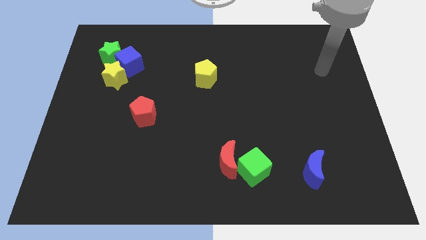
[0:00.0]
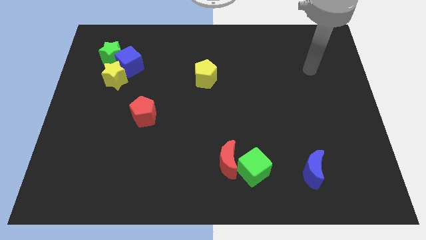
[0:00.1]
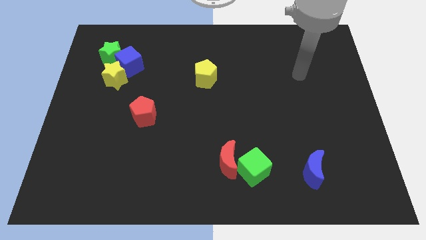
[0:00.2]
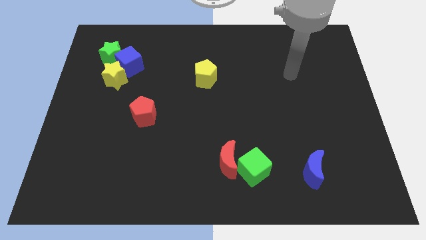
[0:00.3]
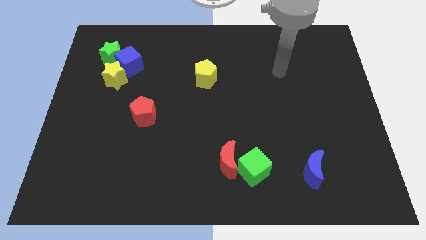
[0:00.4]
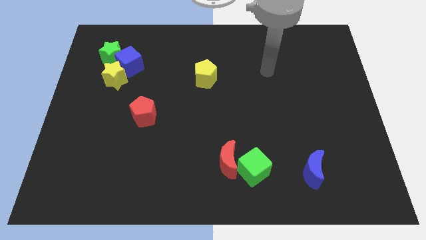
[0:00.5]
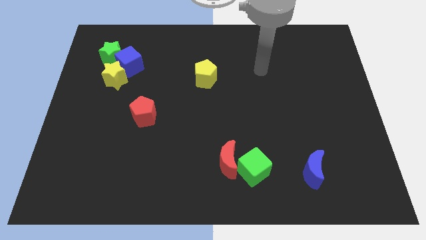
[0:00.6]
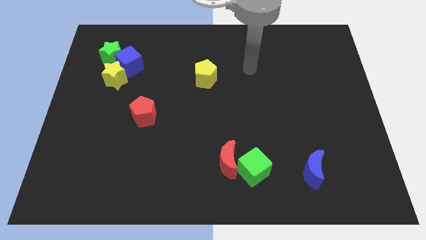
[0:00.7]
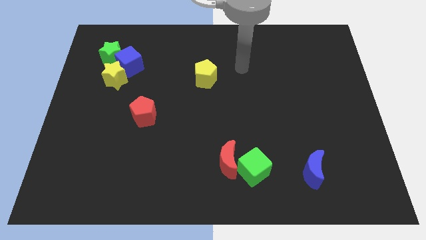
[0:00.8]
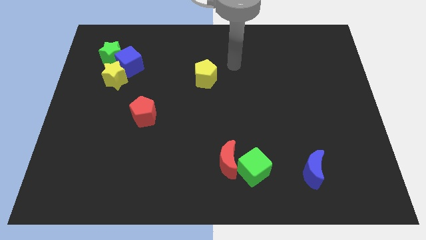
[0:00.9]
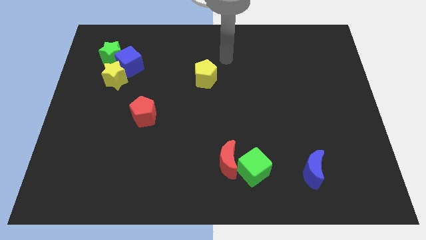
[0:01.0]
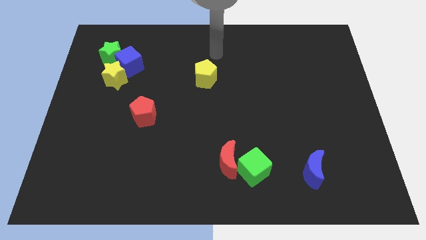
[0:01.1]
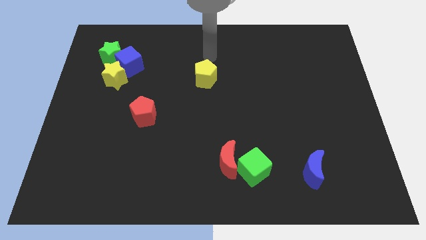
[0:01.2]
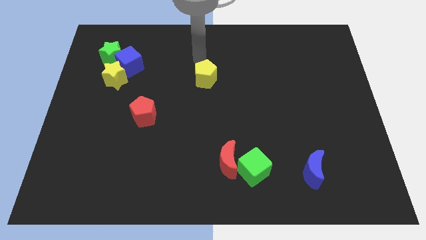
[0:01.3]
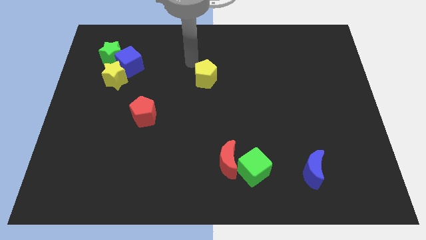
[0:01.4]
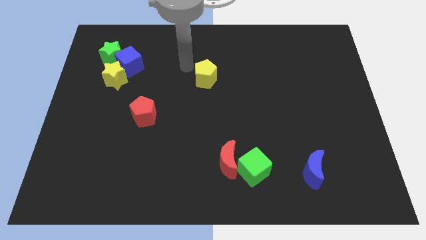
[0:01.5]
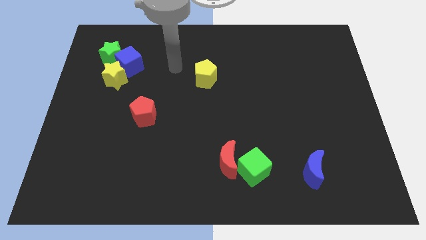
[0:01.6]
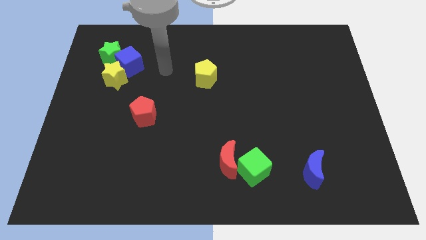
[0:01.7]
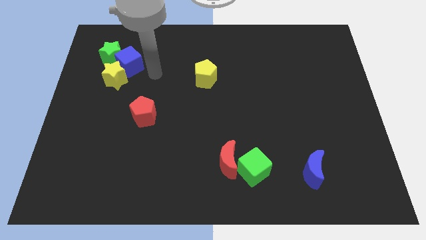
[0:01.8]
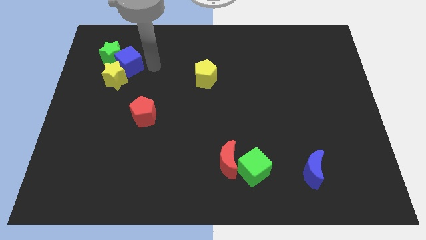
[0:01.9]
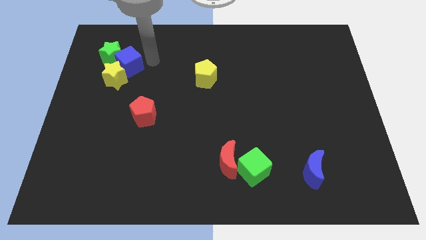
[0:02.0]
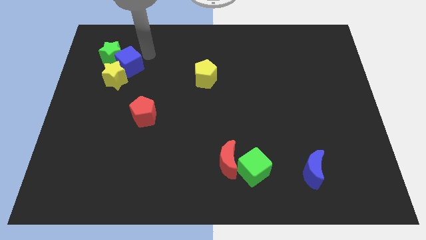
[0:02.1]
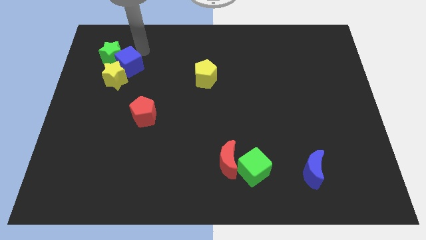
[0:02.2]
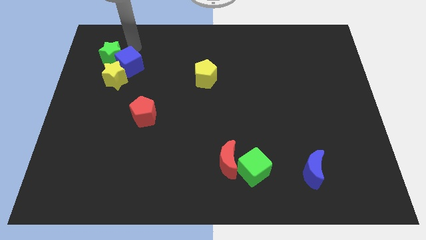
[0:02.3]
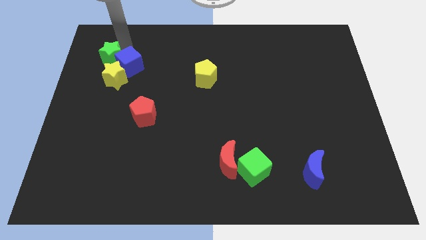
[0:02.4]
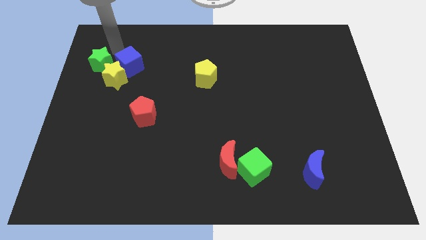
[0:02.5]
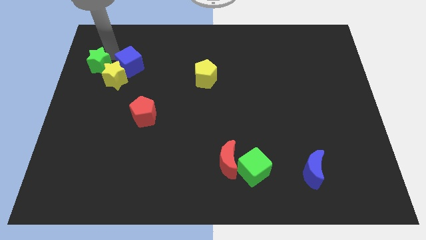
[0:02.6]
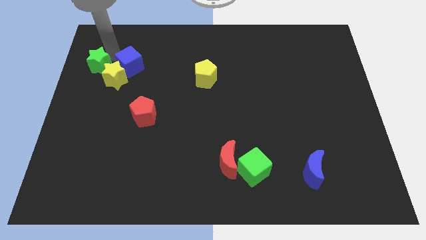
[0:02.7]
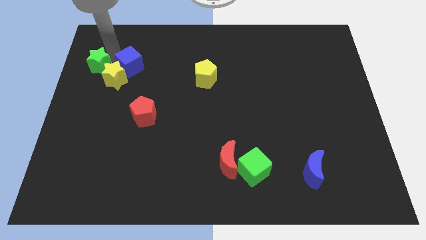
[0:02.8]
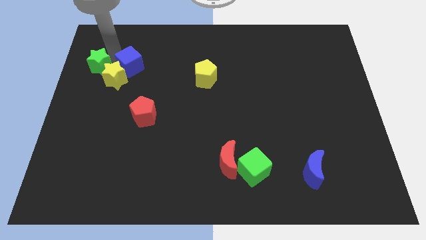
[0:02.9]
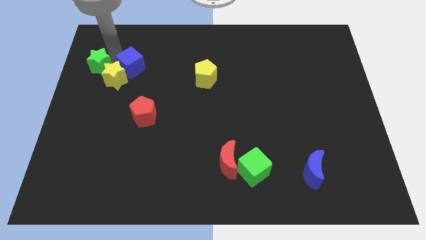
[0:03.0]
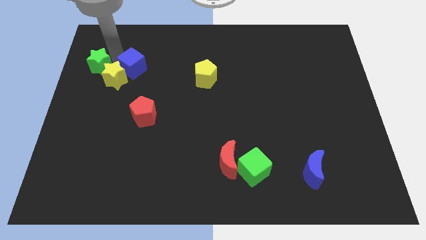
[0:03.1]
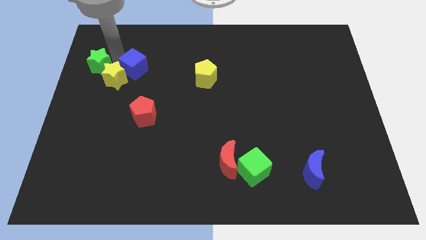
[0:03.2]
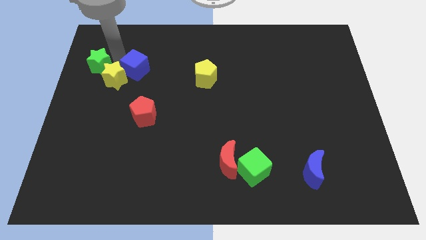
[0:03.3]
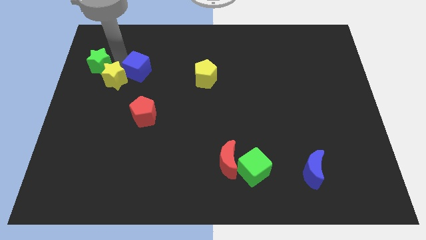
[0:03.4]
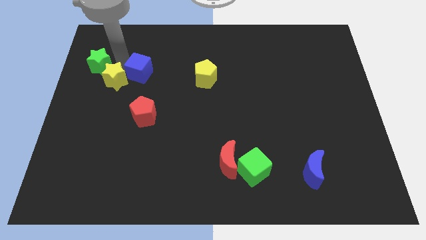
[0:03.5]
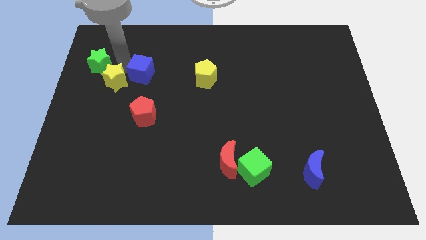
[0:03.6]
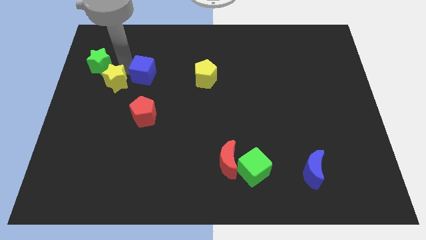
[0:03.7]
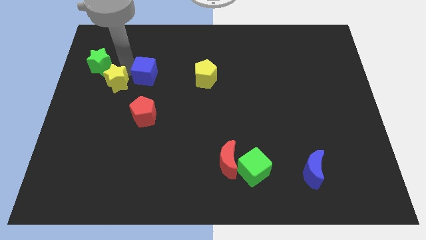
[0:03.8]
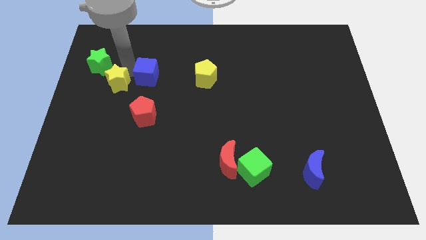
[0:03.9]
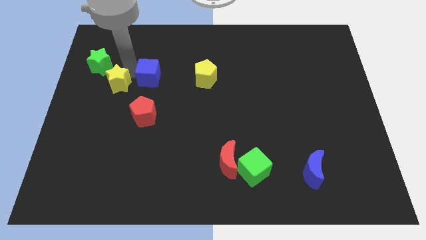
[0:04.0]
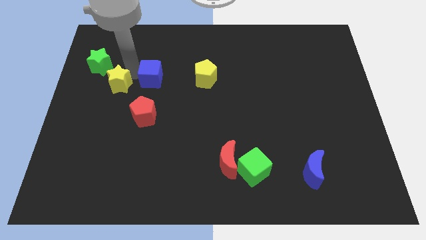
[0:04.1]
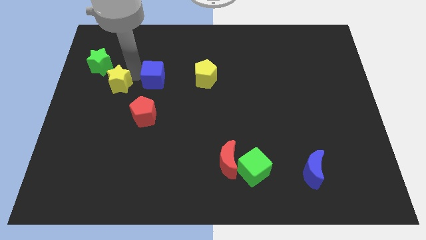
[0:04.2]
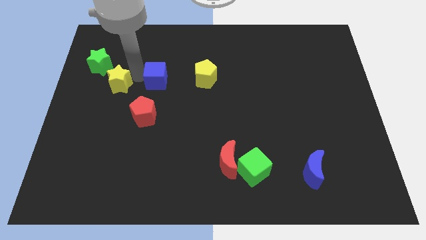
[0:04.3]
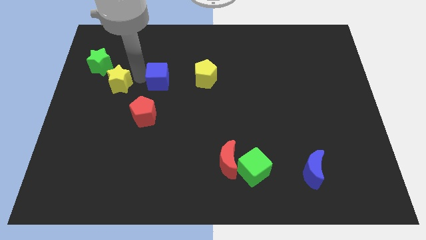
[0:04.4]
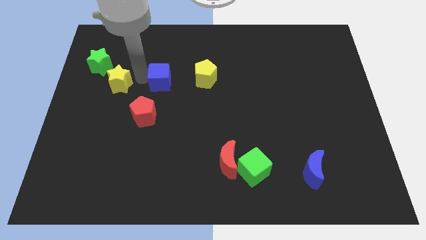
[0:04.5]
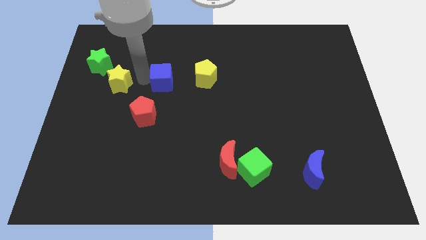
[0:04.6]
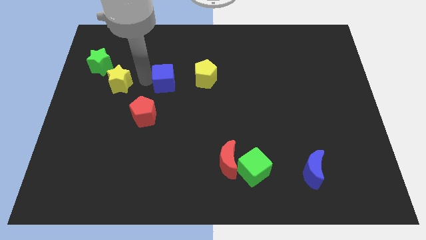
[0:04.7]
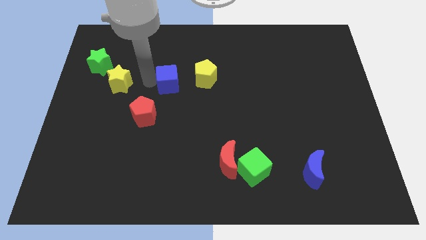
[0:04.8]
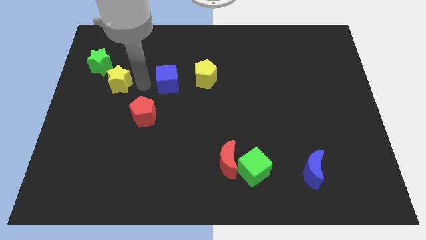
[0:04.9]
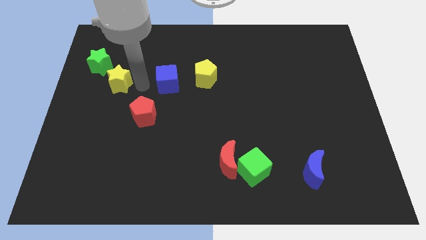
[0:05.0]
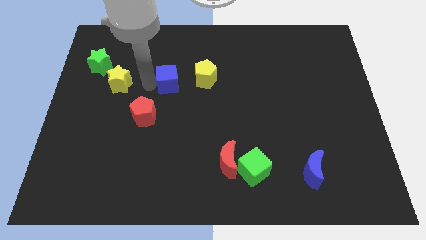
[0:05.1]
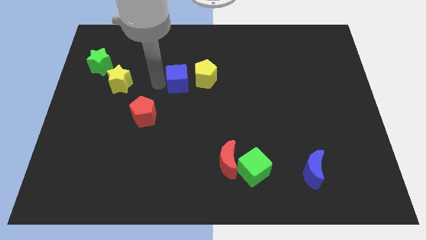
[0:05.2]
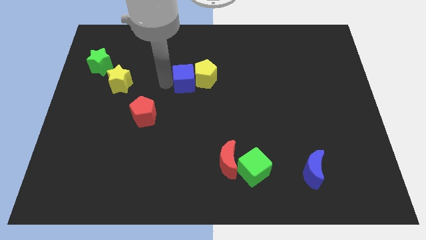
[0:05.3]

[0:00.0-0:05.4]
slide the blue cube towards the yellow pentagon

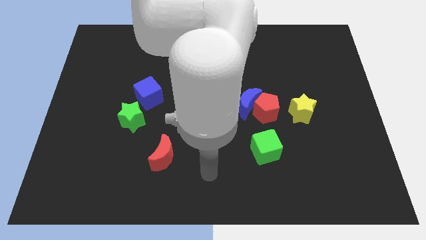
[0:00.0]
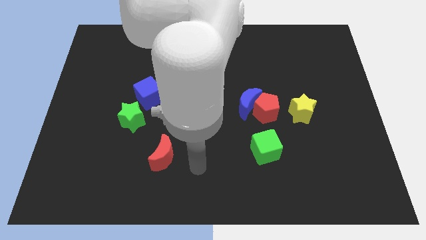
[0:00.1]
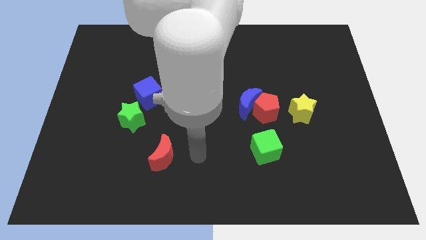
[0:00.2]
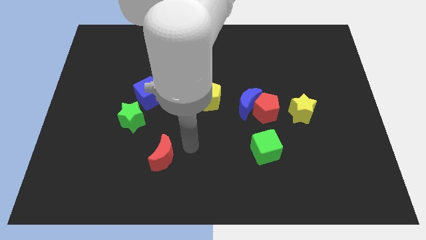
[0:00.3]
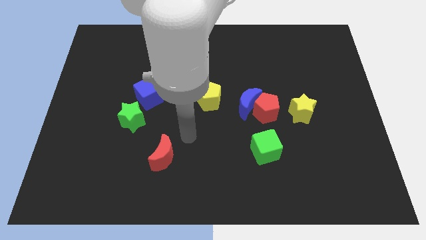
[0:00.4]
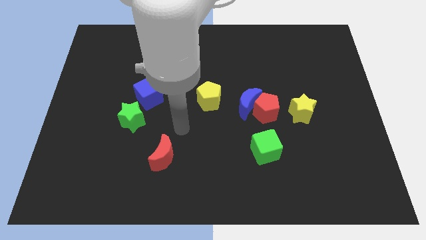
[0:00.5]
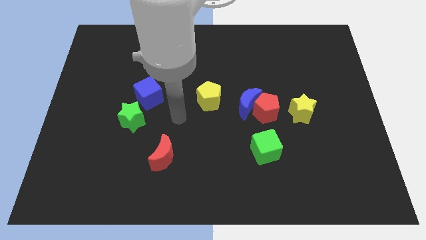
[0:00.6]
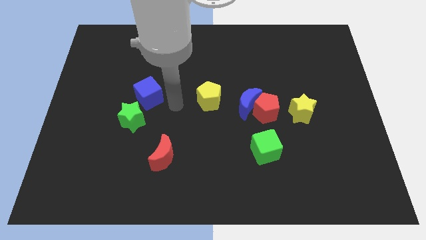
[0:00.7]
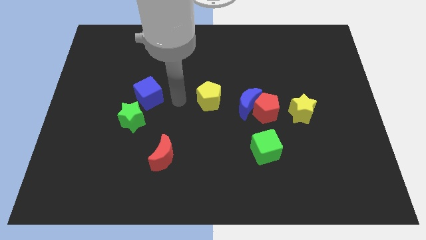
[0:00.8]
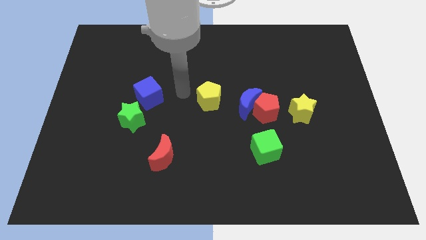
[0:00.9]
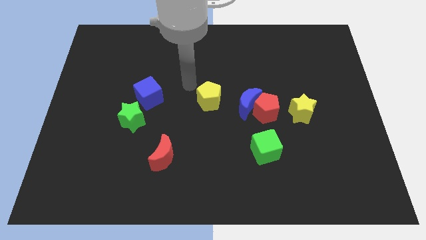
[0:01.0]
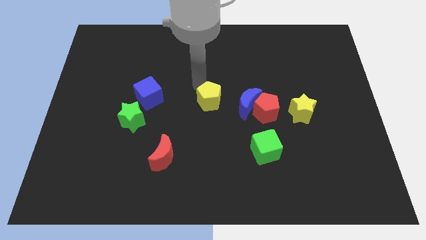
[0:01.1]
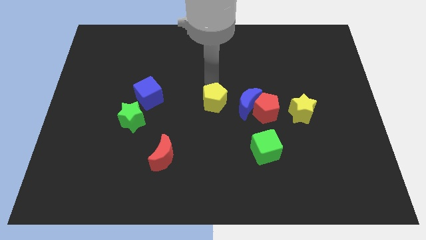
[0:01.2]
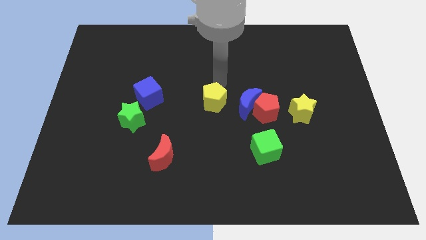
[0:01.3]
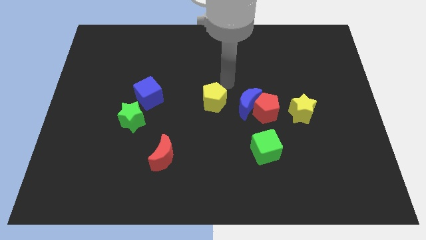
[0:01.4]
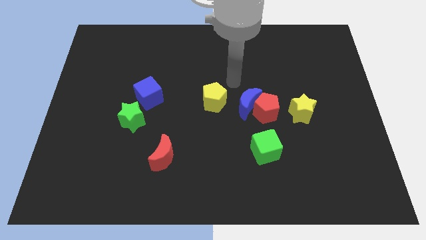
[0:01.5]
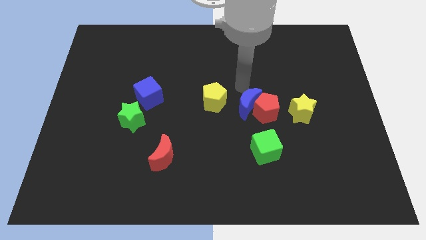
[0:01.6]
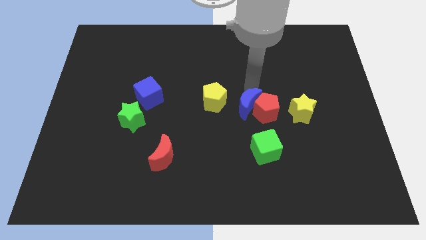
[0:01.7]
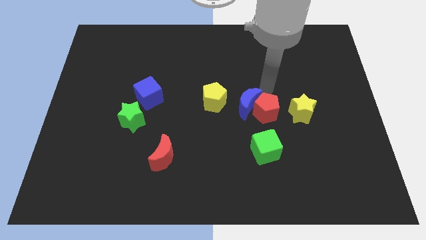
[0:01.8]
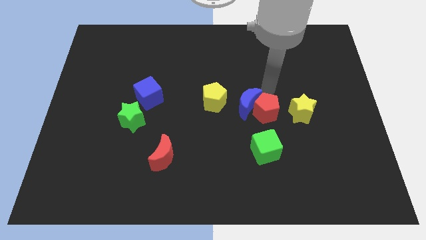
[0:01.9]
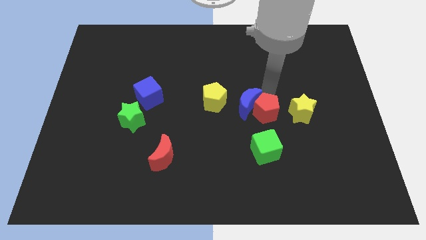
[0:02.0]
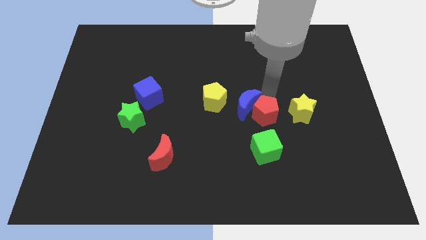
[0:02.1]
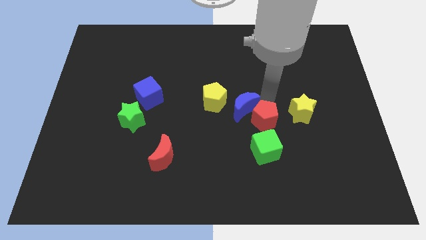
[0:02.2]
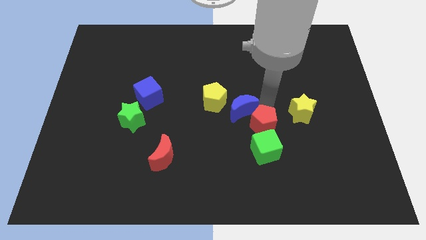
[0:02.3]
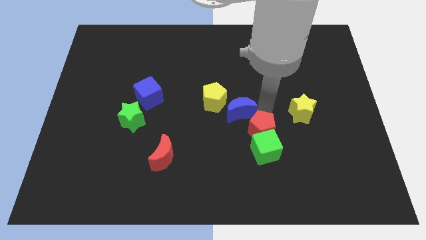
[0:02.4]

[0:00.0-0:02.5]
move the red pentagon next to the green cube
